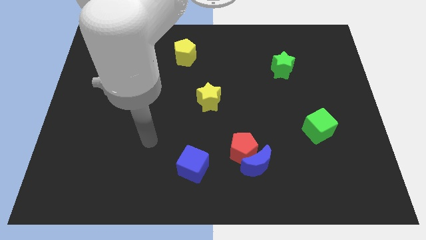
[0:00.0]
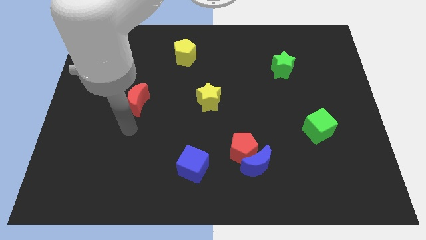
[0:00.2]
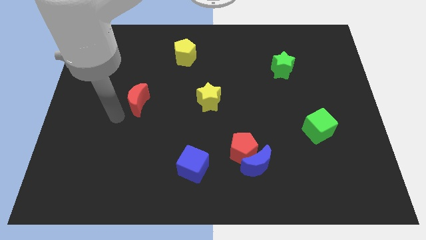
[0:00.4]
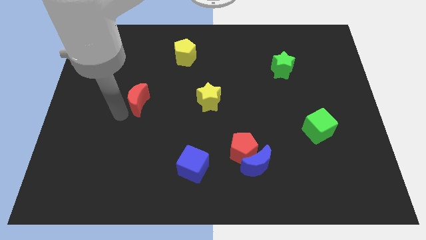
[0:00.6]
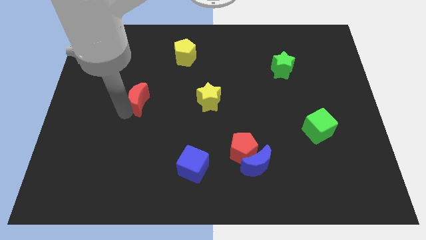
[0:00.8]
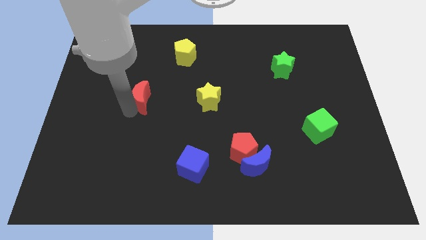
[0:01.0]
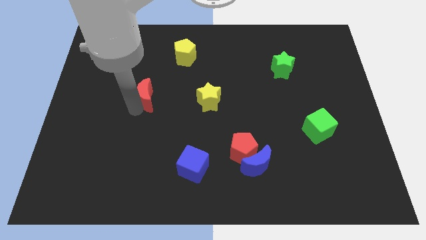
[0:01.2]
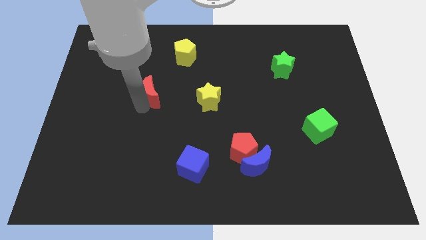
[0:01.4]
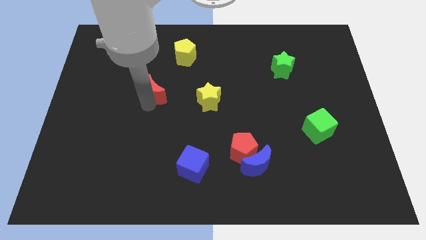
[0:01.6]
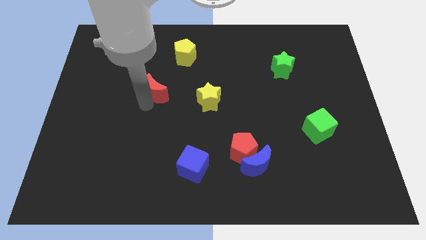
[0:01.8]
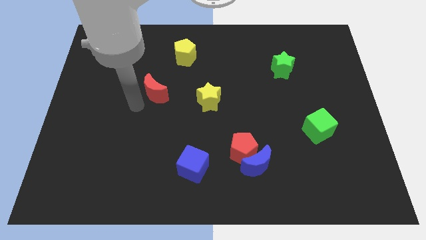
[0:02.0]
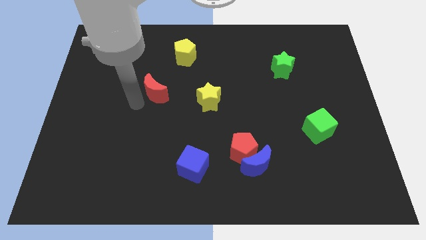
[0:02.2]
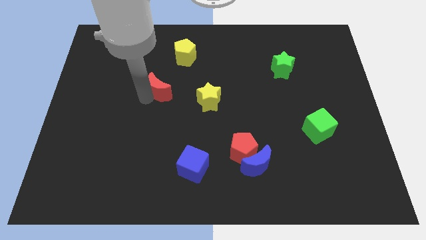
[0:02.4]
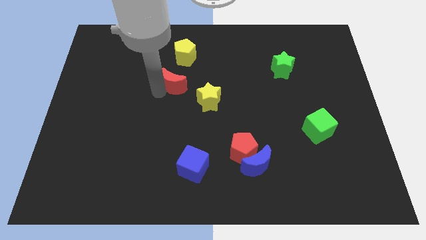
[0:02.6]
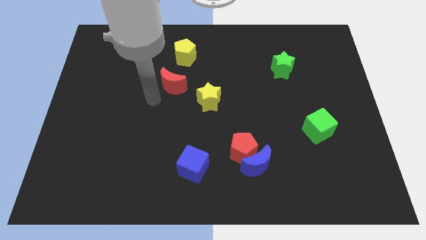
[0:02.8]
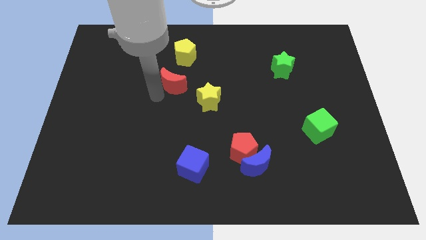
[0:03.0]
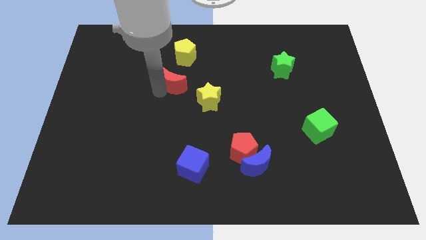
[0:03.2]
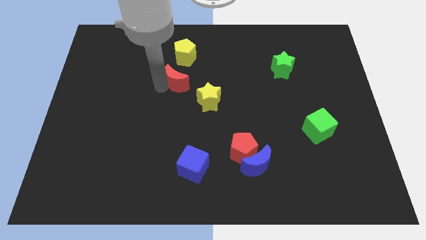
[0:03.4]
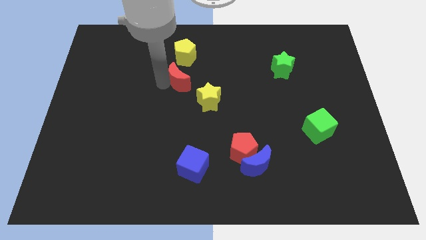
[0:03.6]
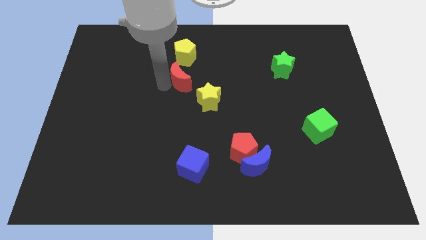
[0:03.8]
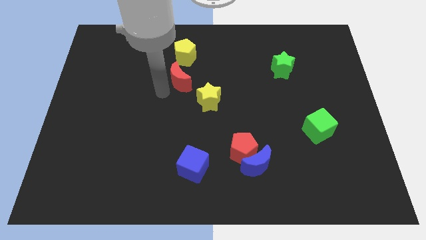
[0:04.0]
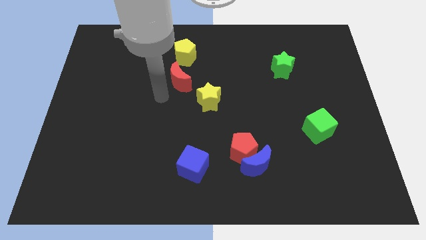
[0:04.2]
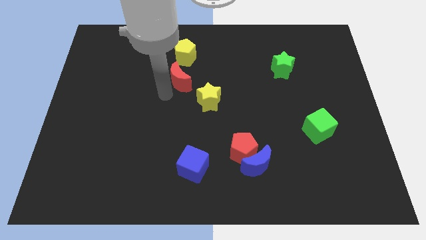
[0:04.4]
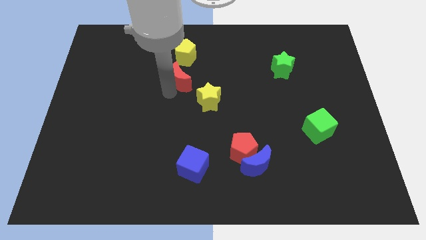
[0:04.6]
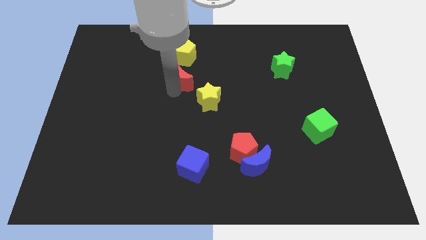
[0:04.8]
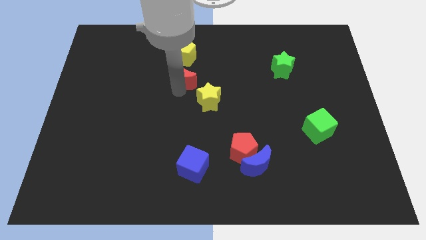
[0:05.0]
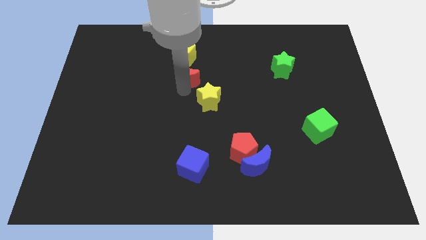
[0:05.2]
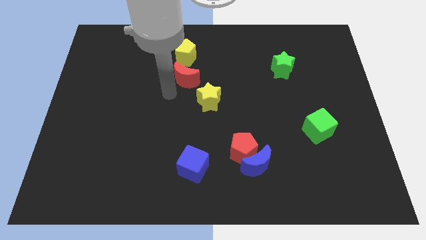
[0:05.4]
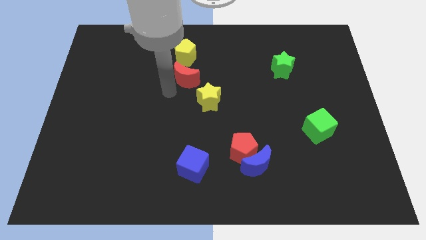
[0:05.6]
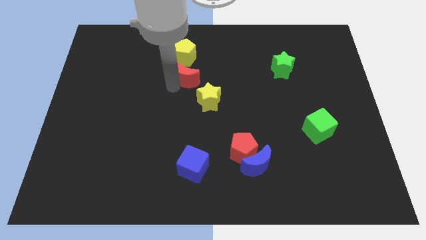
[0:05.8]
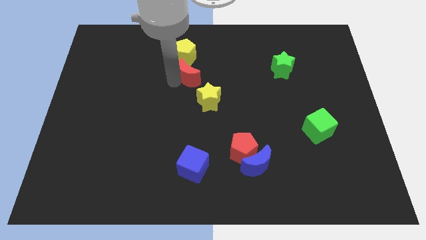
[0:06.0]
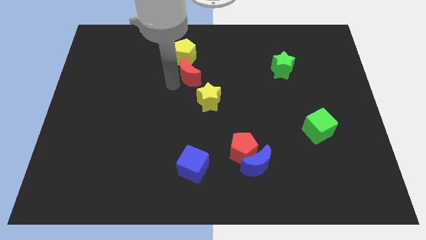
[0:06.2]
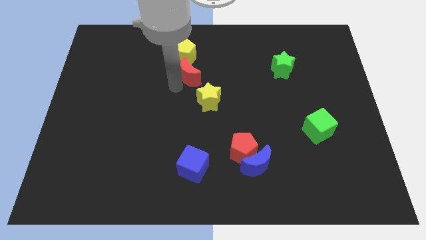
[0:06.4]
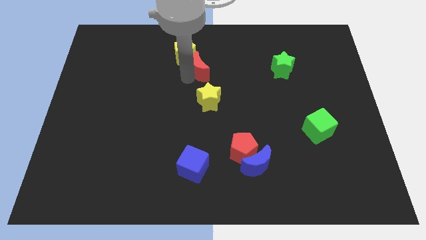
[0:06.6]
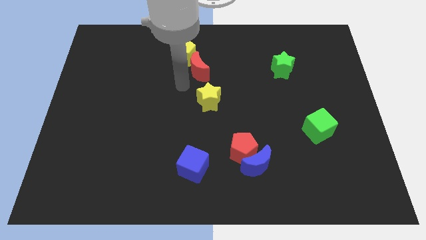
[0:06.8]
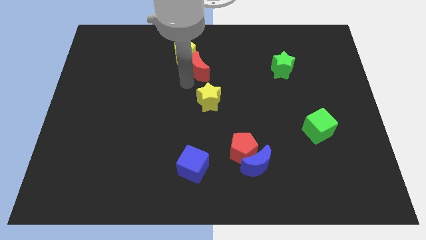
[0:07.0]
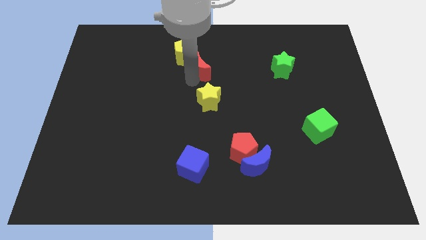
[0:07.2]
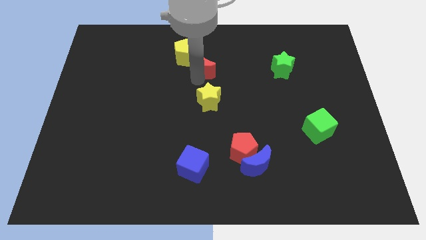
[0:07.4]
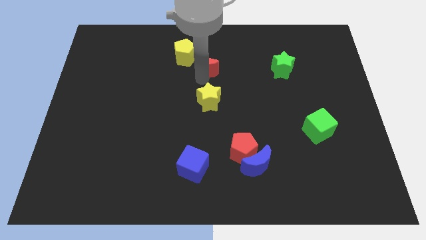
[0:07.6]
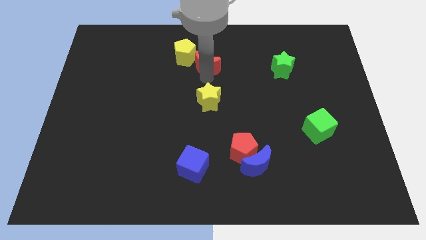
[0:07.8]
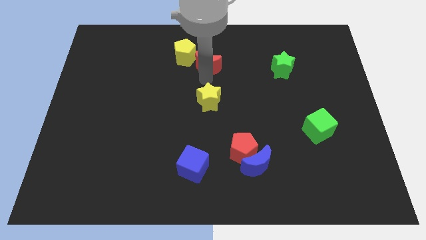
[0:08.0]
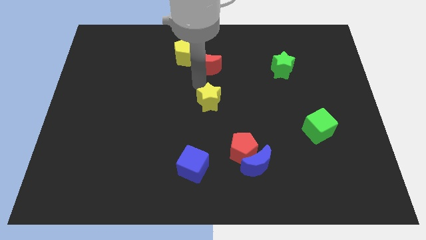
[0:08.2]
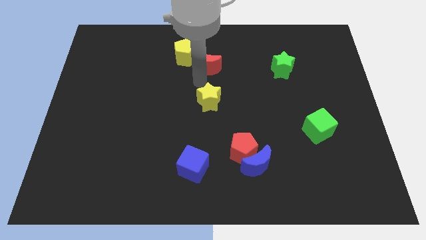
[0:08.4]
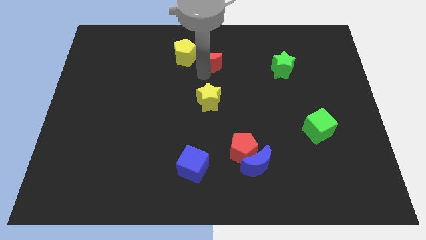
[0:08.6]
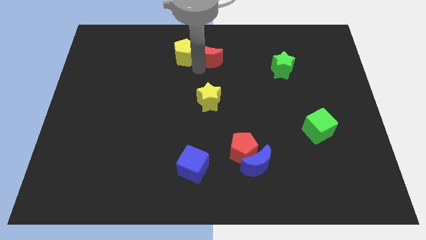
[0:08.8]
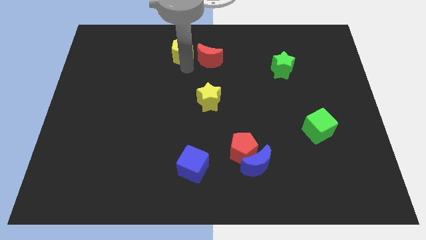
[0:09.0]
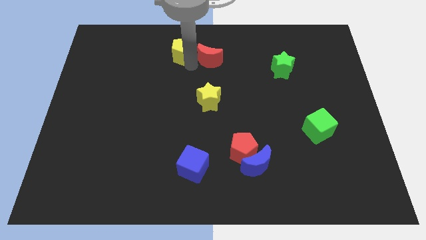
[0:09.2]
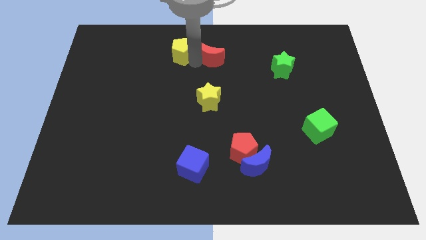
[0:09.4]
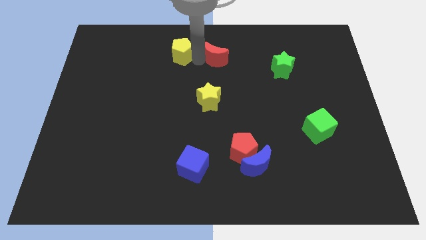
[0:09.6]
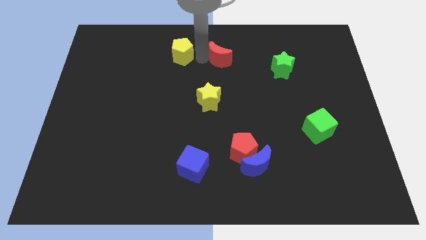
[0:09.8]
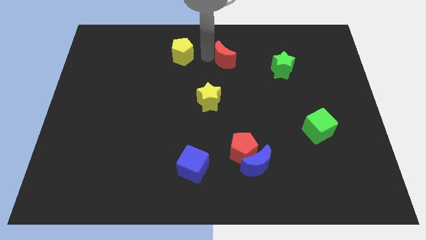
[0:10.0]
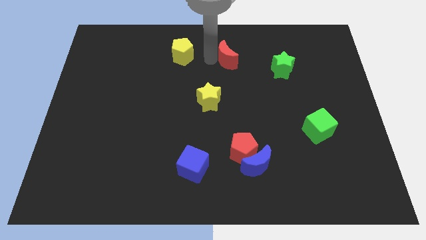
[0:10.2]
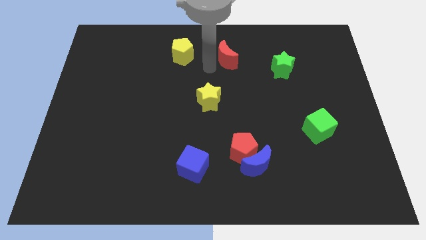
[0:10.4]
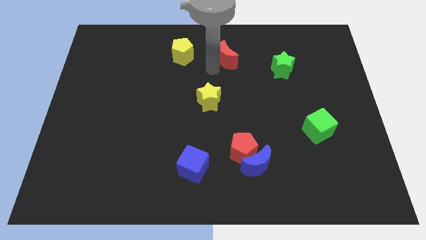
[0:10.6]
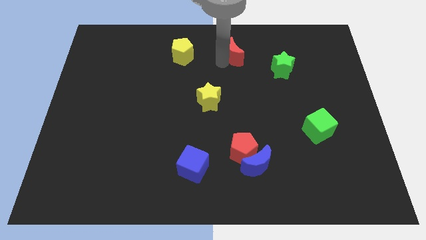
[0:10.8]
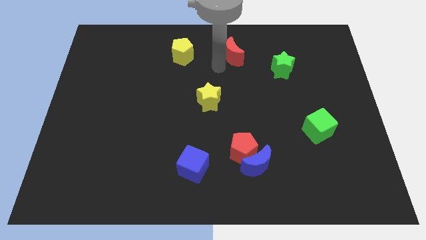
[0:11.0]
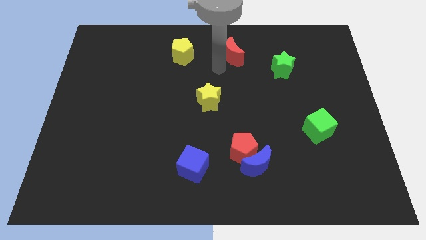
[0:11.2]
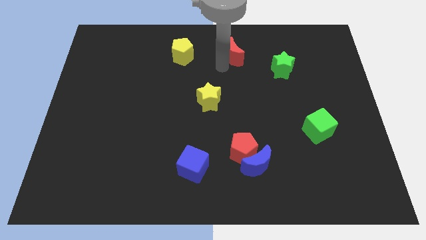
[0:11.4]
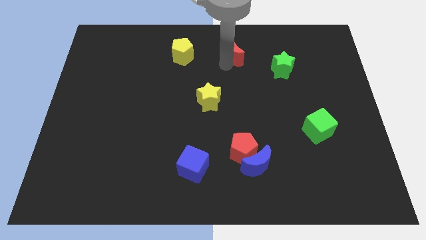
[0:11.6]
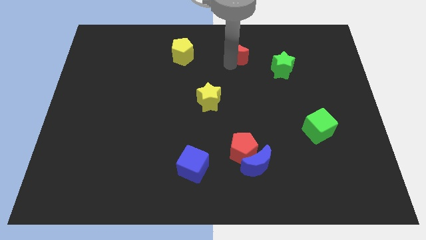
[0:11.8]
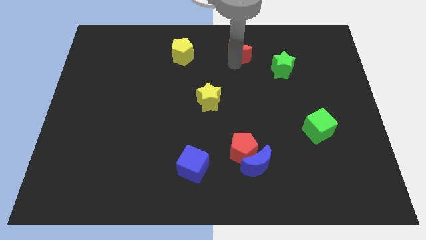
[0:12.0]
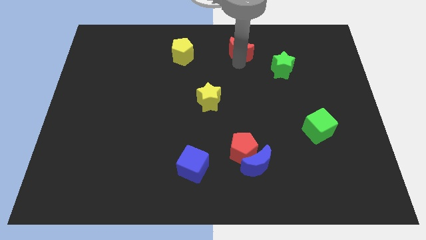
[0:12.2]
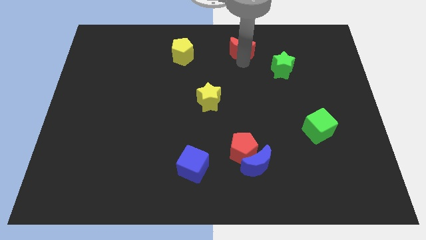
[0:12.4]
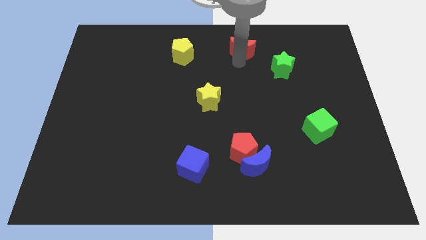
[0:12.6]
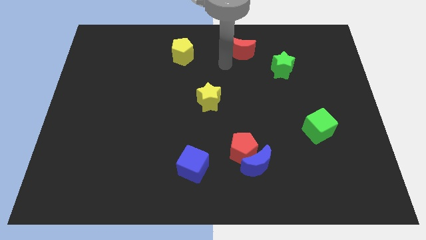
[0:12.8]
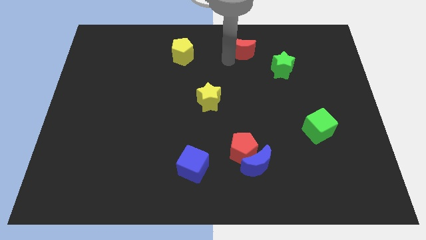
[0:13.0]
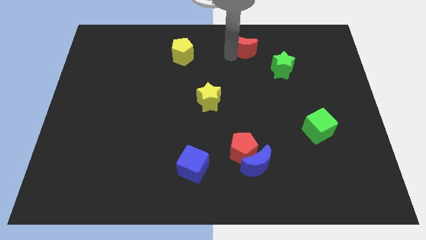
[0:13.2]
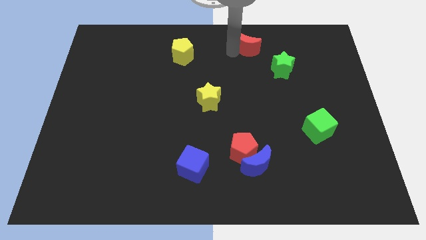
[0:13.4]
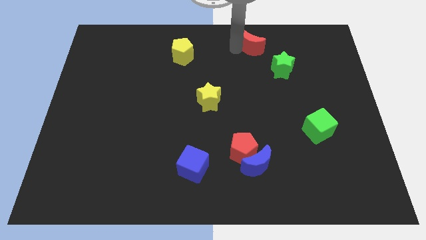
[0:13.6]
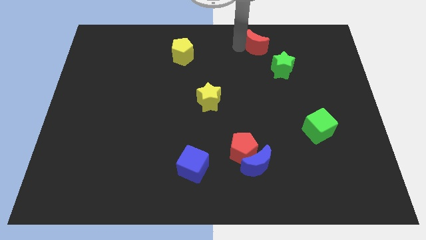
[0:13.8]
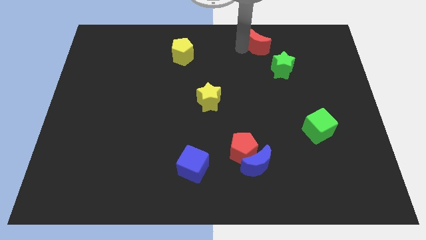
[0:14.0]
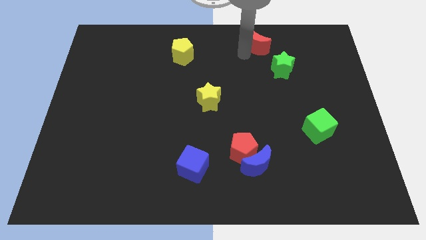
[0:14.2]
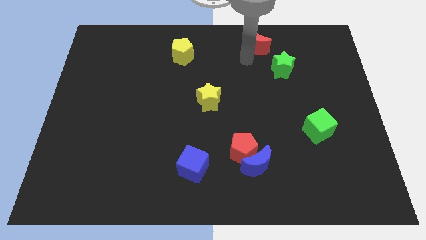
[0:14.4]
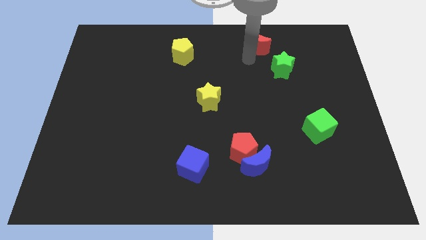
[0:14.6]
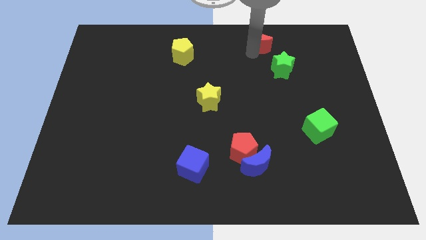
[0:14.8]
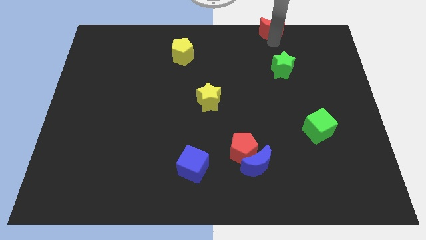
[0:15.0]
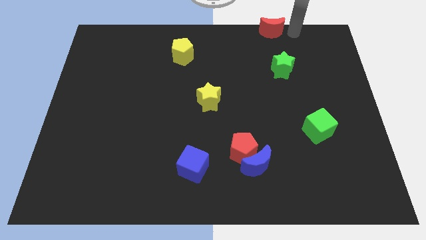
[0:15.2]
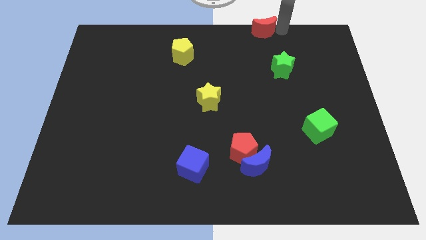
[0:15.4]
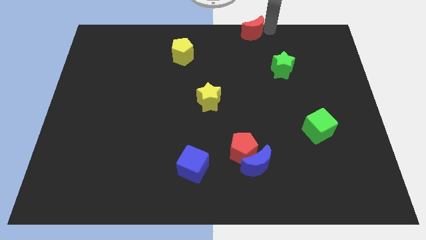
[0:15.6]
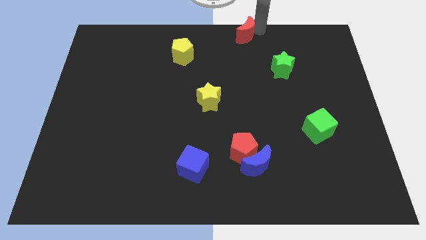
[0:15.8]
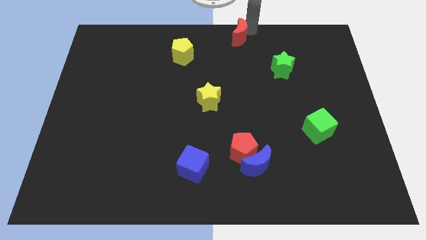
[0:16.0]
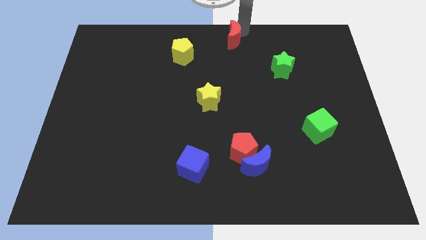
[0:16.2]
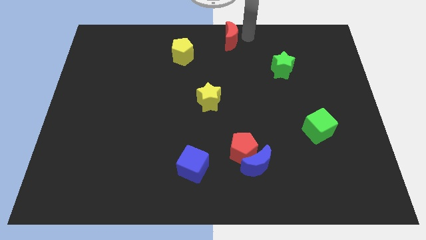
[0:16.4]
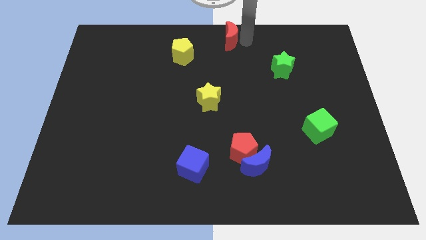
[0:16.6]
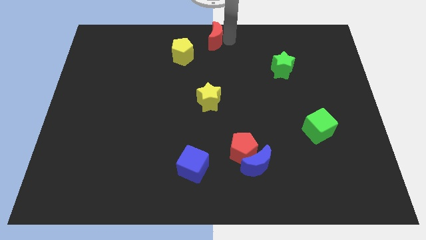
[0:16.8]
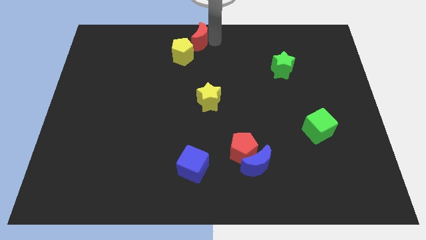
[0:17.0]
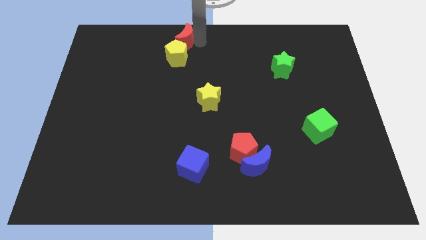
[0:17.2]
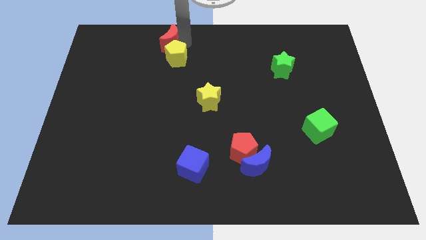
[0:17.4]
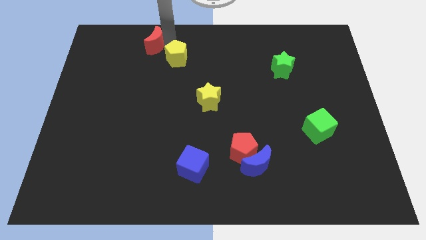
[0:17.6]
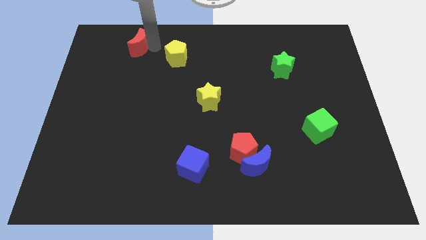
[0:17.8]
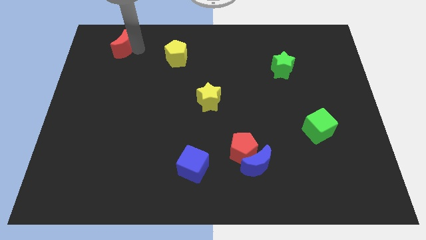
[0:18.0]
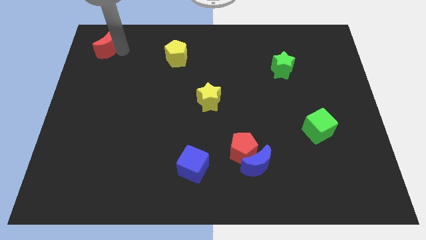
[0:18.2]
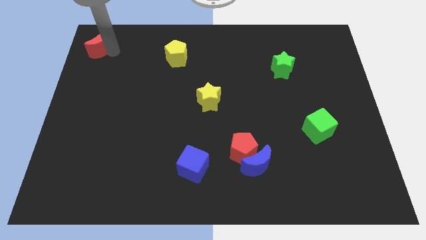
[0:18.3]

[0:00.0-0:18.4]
put the red moon to the upper left corner
